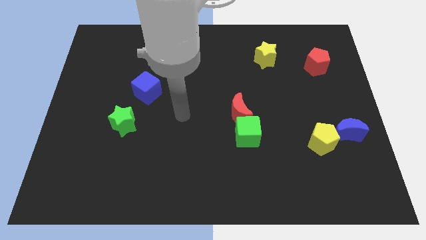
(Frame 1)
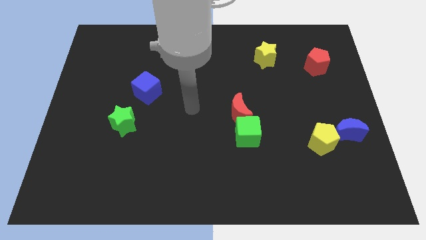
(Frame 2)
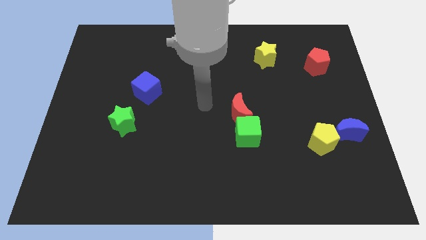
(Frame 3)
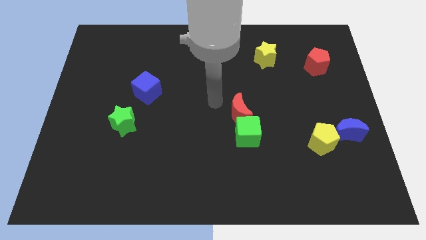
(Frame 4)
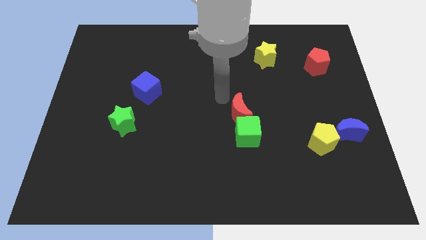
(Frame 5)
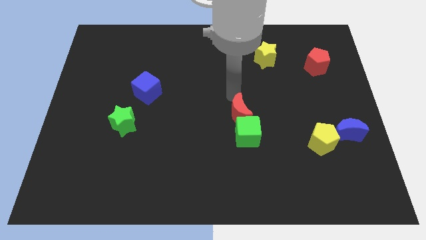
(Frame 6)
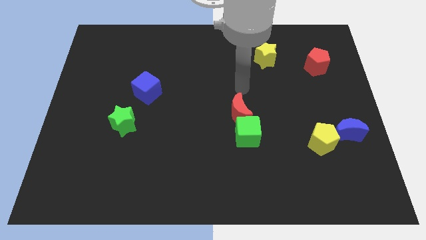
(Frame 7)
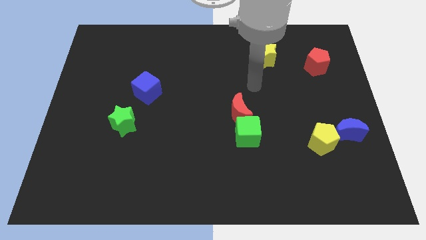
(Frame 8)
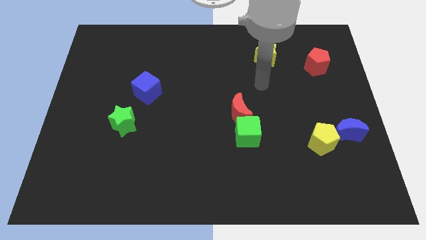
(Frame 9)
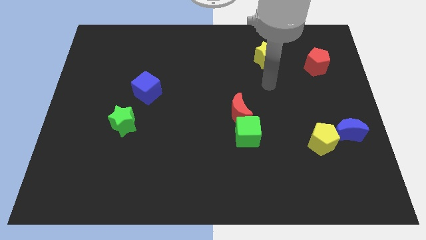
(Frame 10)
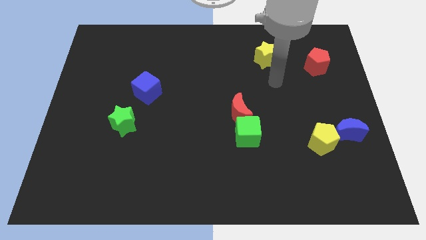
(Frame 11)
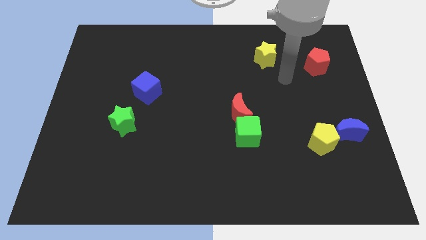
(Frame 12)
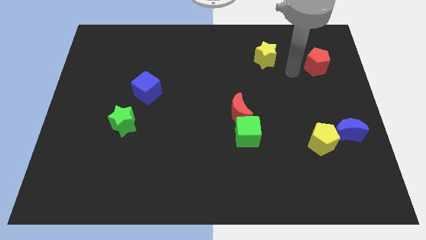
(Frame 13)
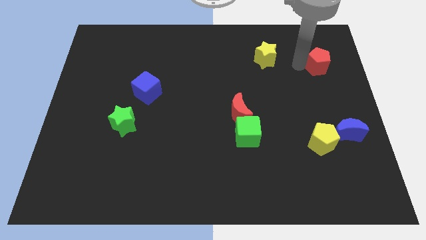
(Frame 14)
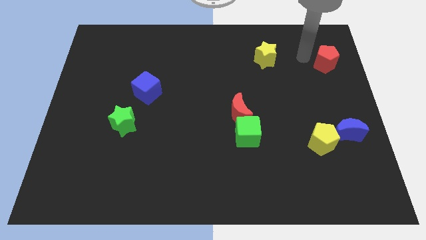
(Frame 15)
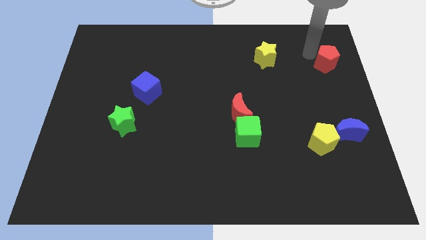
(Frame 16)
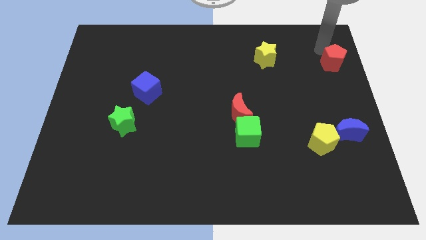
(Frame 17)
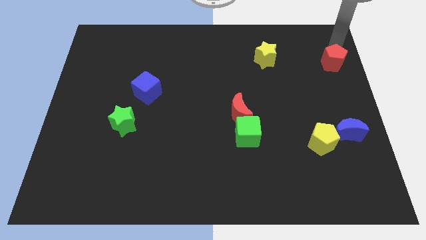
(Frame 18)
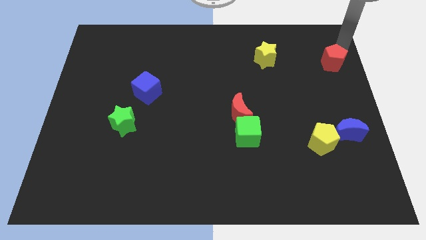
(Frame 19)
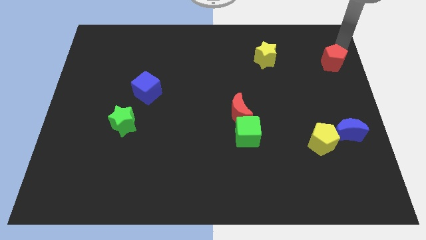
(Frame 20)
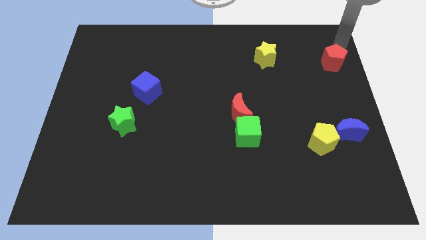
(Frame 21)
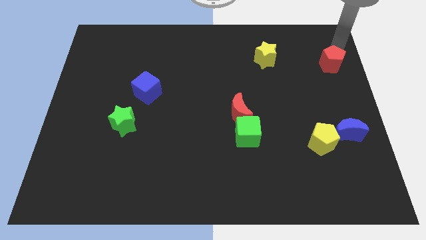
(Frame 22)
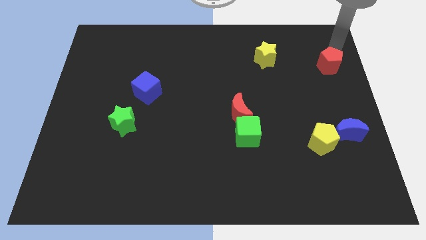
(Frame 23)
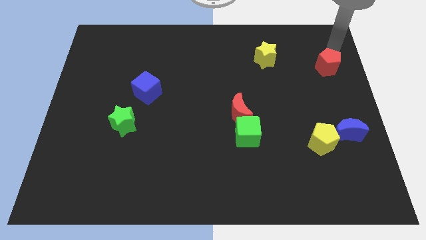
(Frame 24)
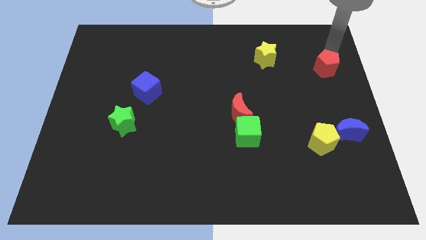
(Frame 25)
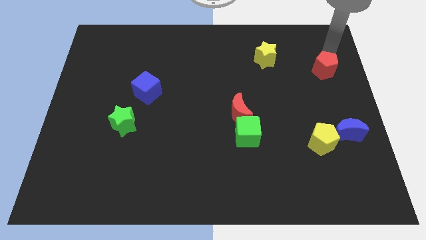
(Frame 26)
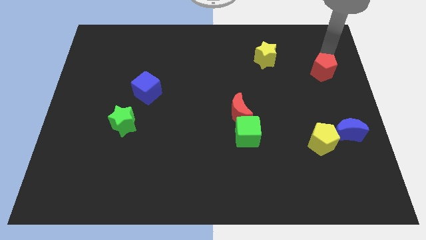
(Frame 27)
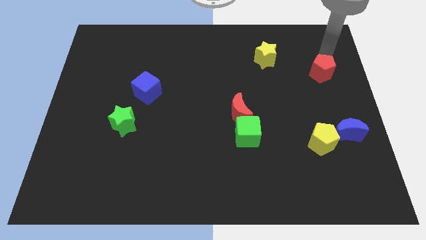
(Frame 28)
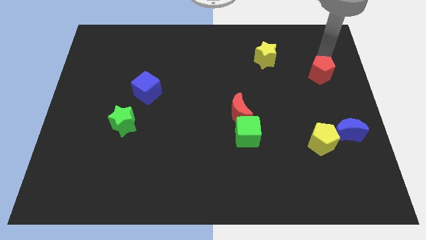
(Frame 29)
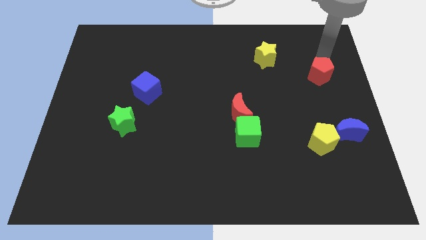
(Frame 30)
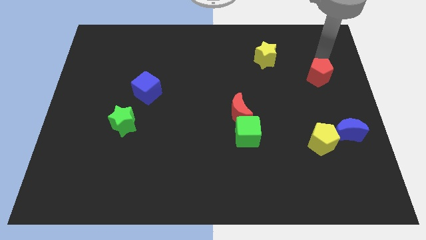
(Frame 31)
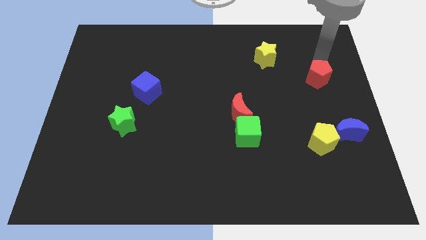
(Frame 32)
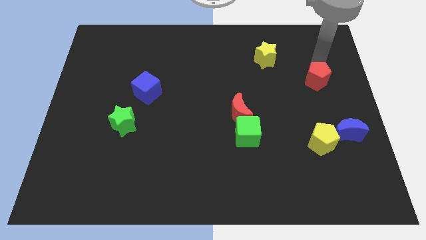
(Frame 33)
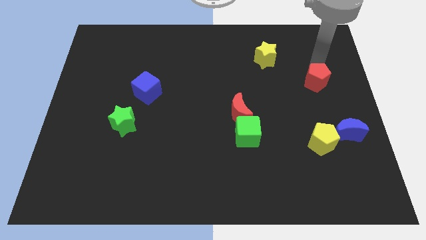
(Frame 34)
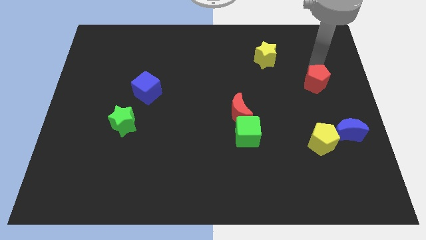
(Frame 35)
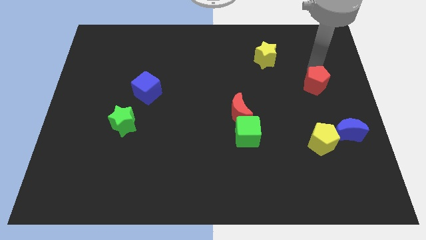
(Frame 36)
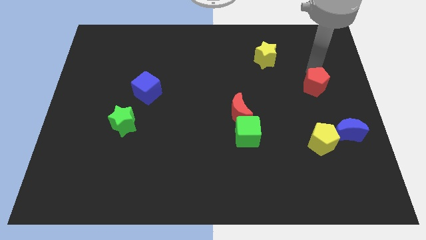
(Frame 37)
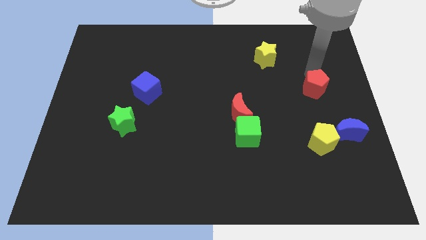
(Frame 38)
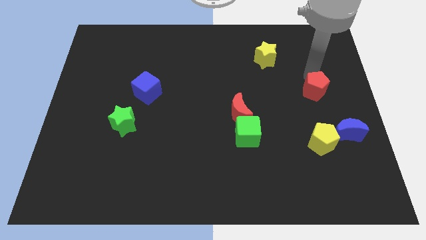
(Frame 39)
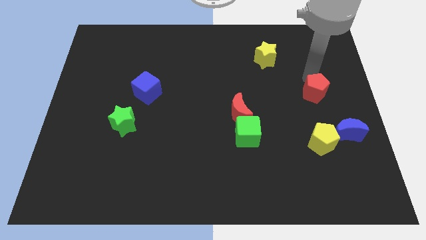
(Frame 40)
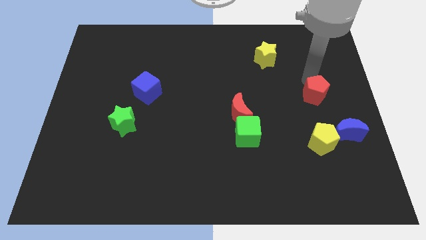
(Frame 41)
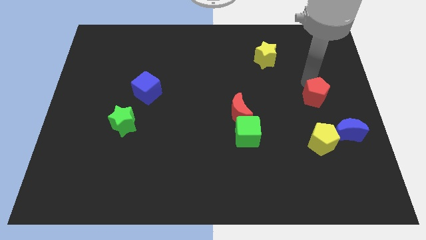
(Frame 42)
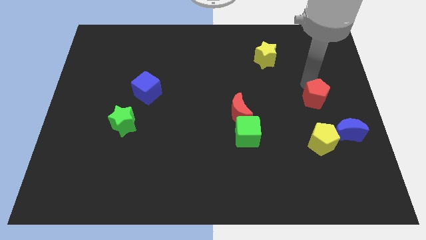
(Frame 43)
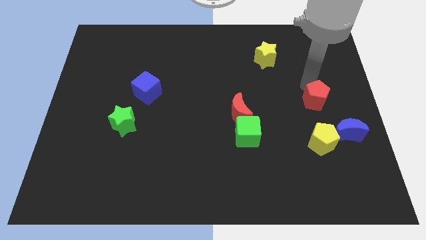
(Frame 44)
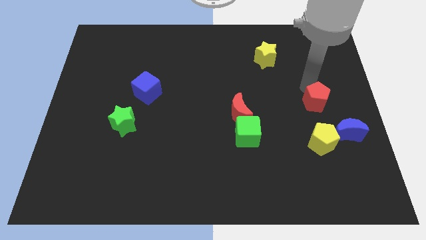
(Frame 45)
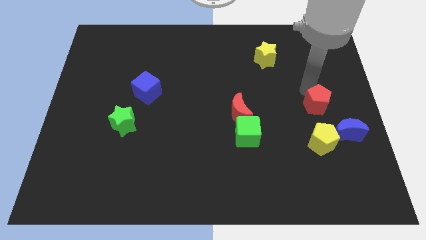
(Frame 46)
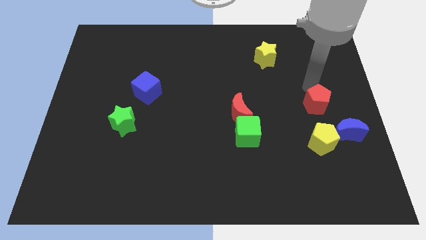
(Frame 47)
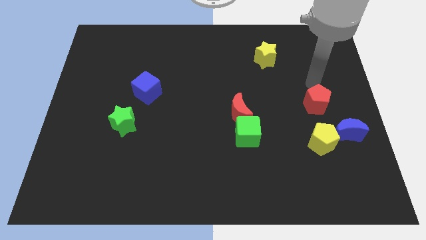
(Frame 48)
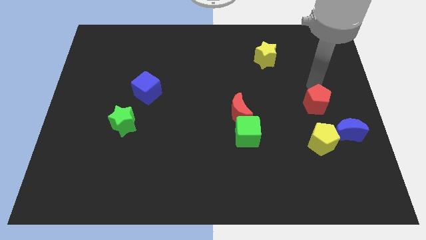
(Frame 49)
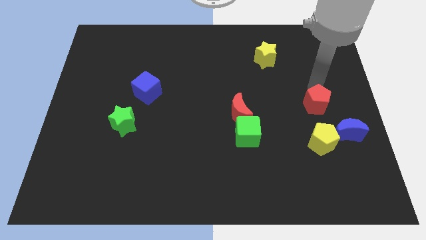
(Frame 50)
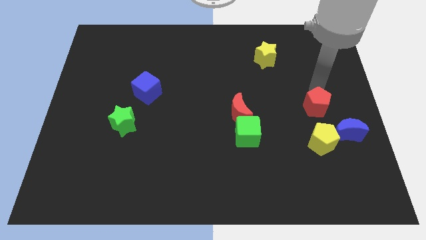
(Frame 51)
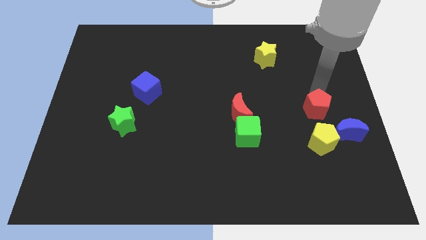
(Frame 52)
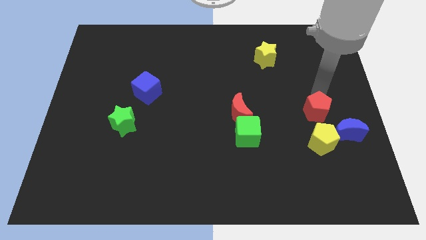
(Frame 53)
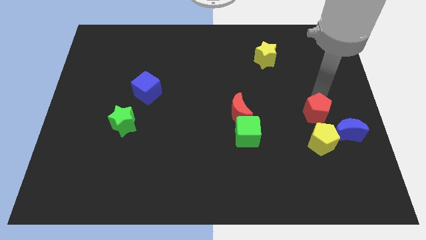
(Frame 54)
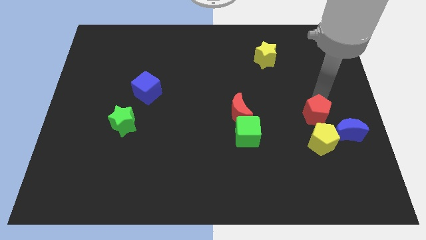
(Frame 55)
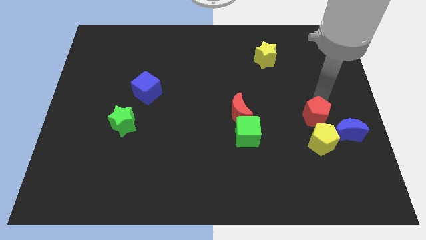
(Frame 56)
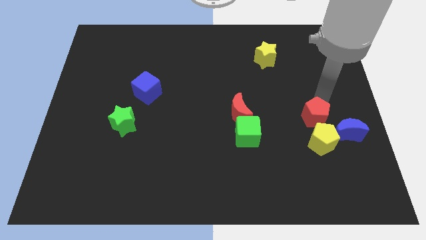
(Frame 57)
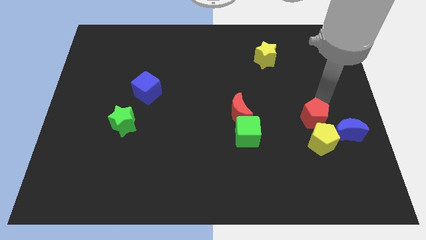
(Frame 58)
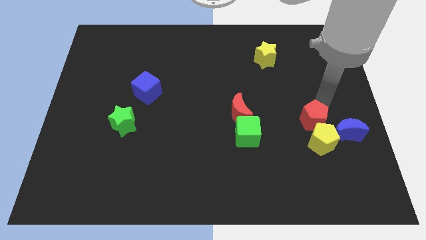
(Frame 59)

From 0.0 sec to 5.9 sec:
push the red pentagon towards the yellow pentagon

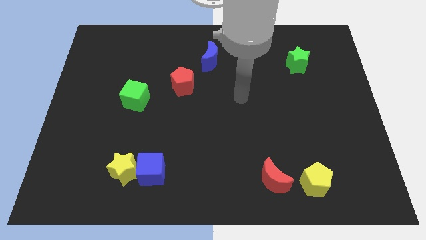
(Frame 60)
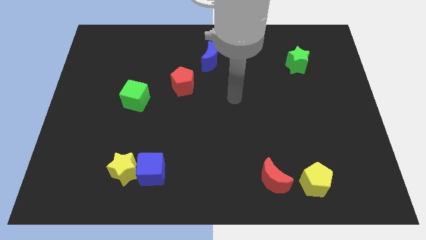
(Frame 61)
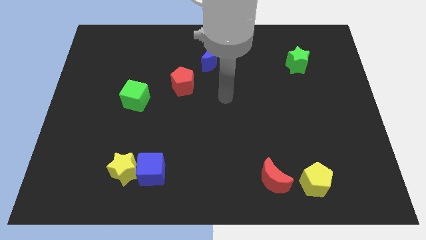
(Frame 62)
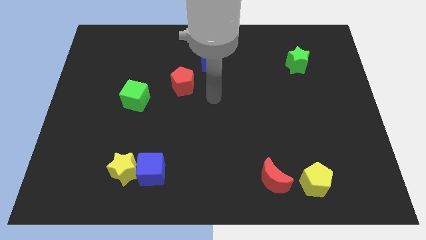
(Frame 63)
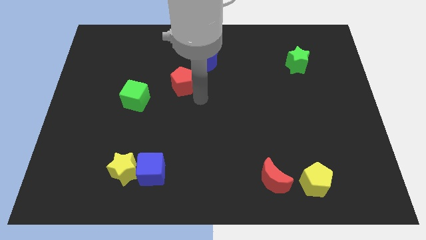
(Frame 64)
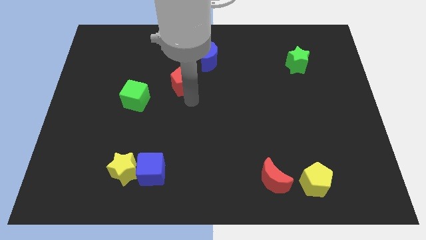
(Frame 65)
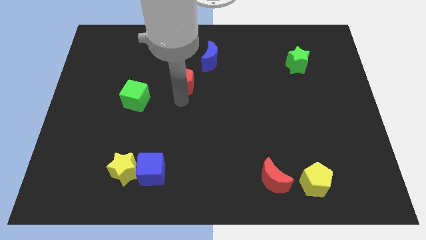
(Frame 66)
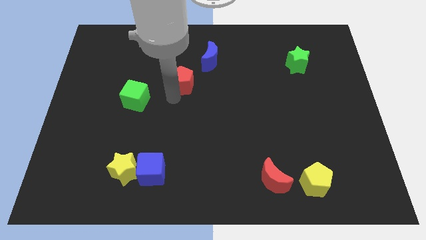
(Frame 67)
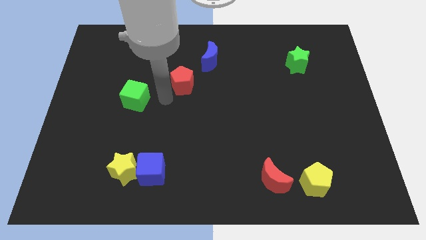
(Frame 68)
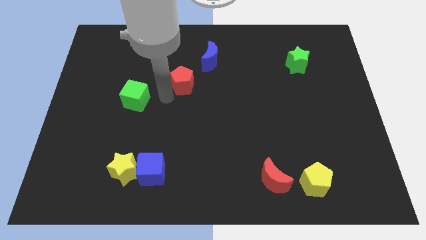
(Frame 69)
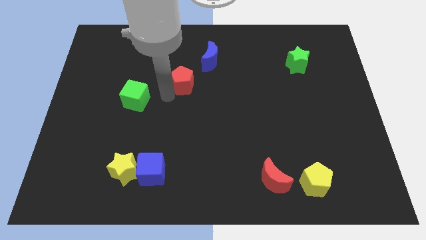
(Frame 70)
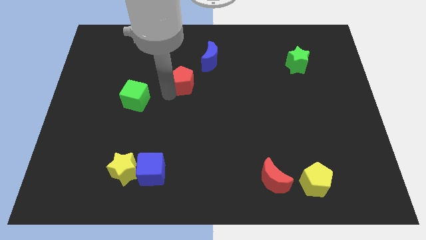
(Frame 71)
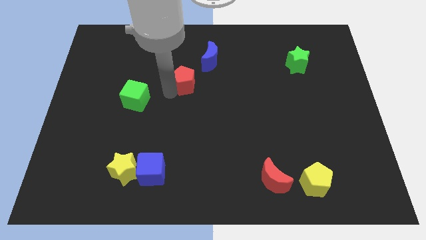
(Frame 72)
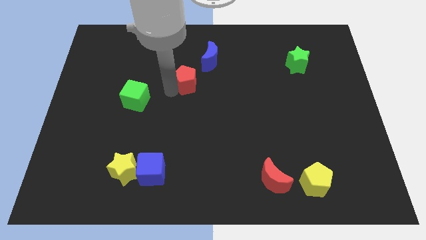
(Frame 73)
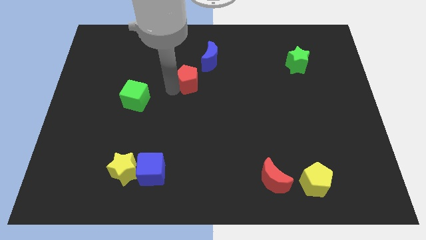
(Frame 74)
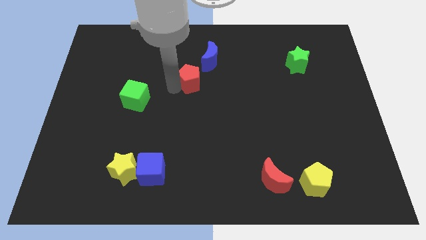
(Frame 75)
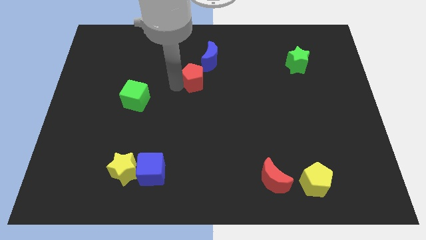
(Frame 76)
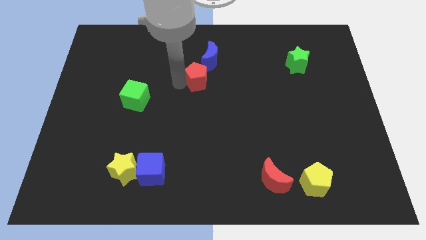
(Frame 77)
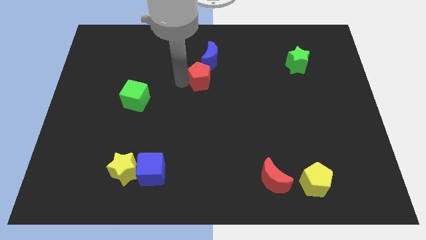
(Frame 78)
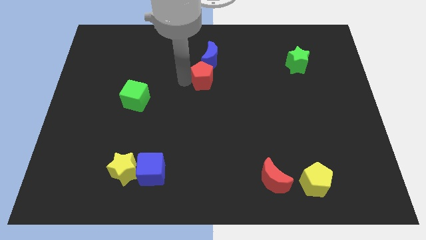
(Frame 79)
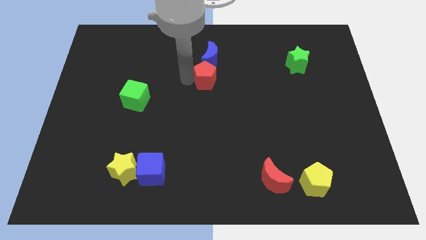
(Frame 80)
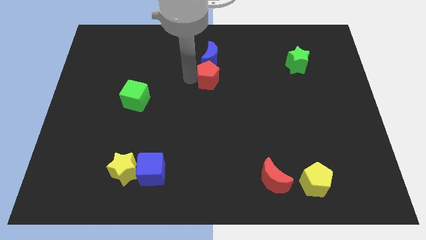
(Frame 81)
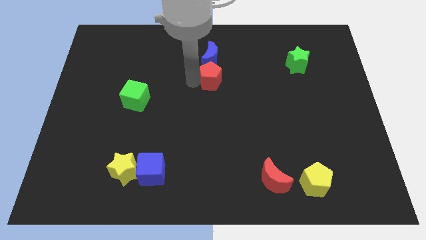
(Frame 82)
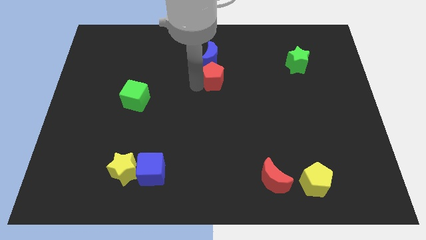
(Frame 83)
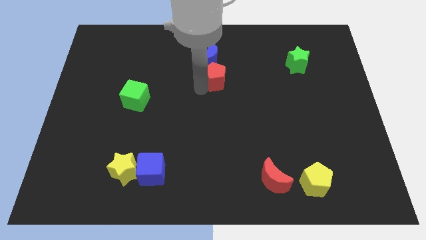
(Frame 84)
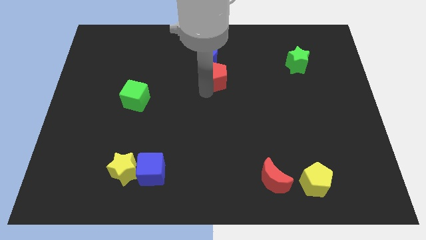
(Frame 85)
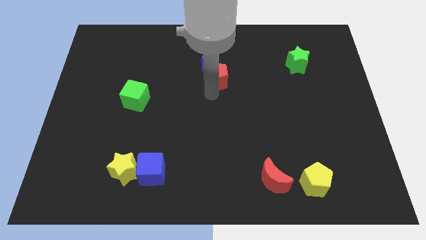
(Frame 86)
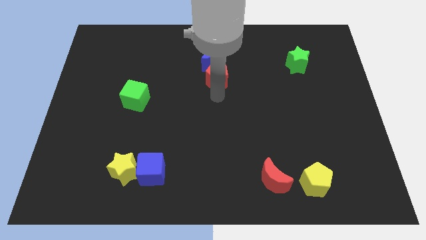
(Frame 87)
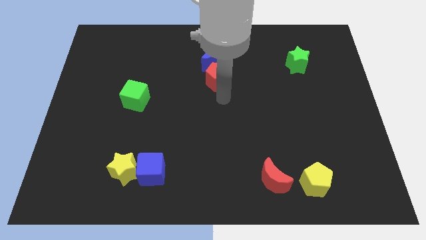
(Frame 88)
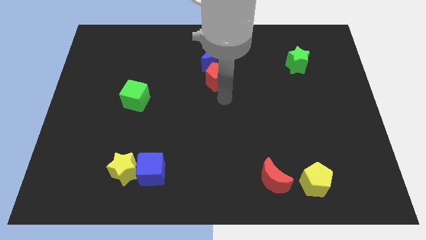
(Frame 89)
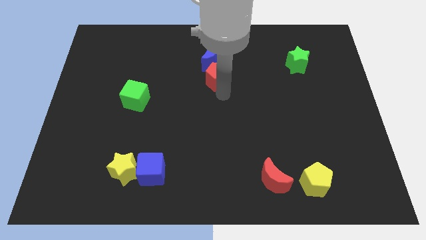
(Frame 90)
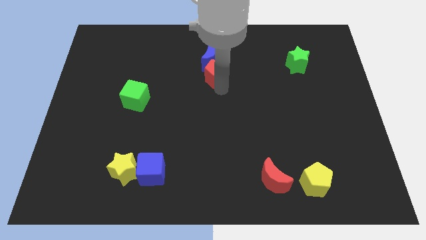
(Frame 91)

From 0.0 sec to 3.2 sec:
push the red pentagon towards the blue moon
